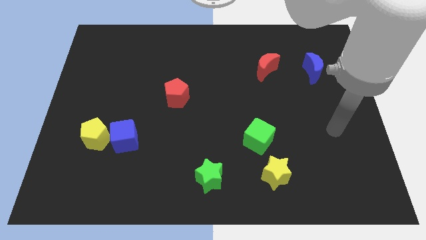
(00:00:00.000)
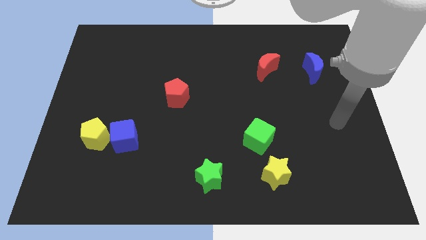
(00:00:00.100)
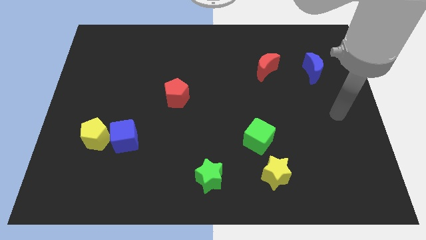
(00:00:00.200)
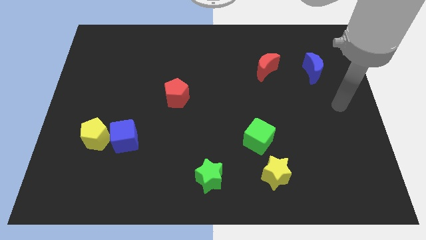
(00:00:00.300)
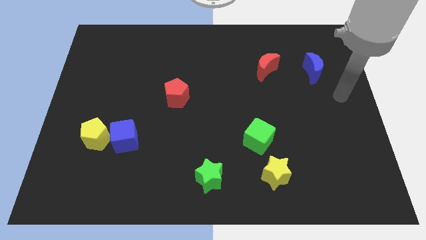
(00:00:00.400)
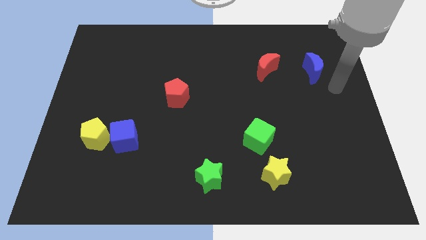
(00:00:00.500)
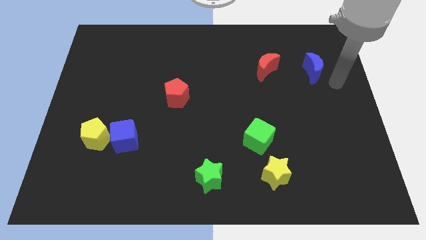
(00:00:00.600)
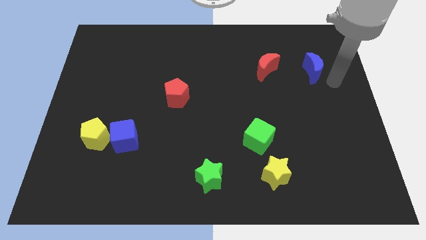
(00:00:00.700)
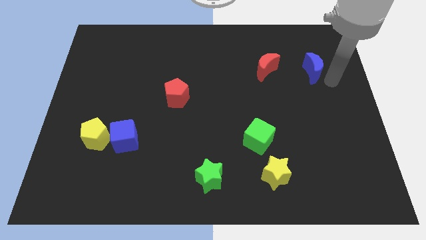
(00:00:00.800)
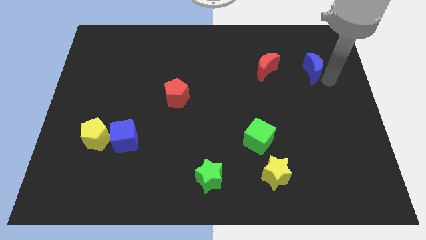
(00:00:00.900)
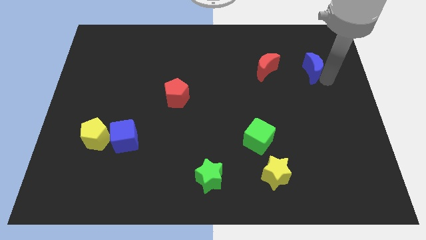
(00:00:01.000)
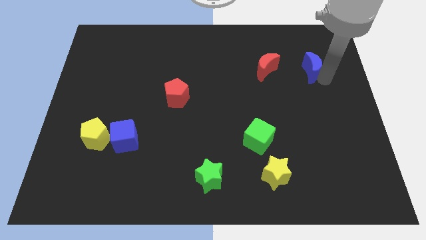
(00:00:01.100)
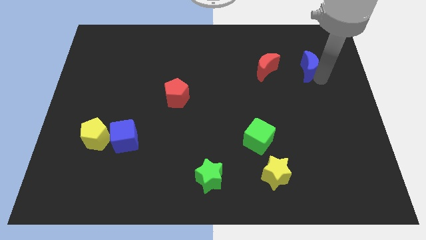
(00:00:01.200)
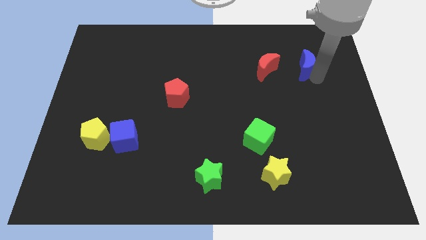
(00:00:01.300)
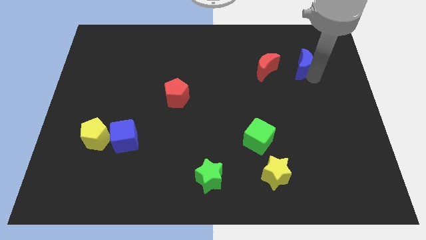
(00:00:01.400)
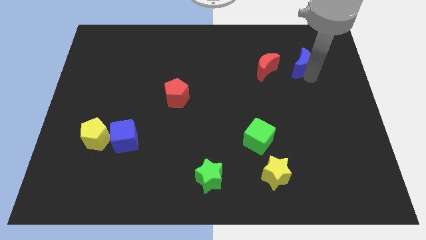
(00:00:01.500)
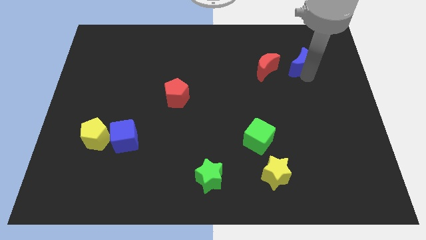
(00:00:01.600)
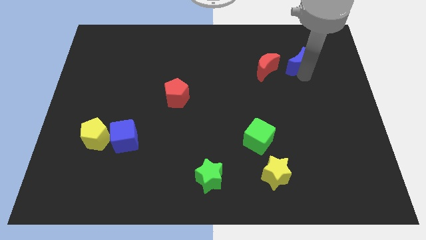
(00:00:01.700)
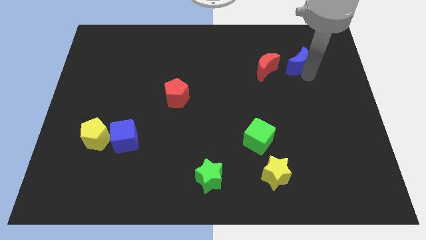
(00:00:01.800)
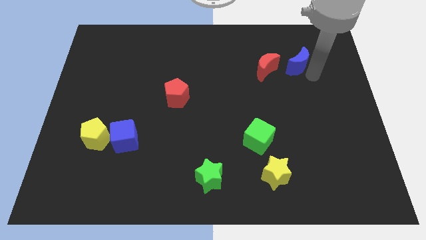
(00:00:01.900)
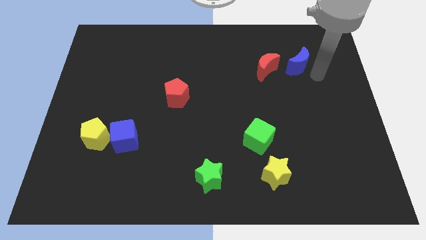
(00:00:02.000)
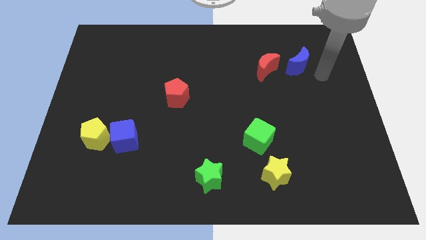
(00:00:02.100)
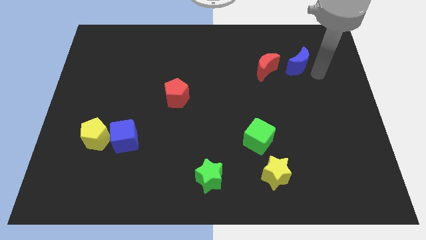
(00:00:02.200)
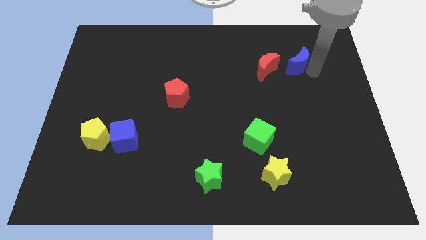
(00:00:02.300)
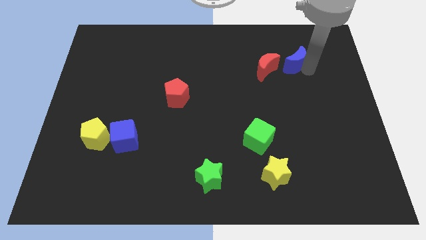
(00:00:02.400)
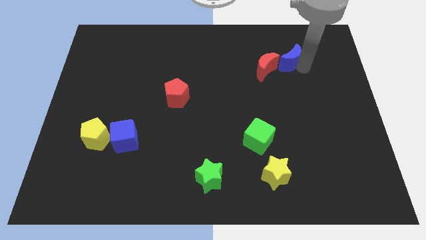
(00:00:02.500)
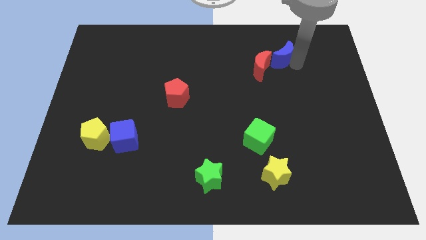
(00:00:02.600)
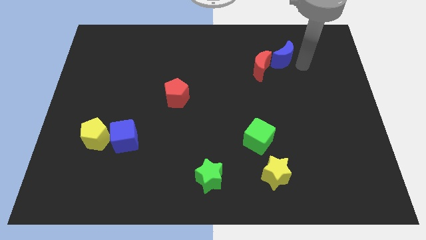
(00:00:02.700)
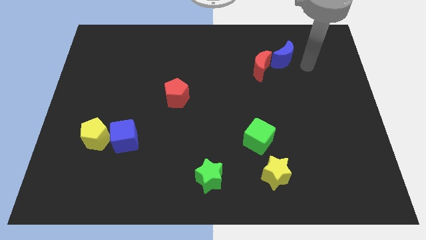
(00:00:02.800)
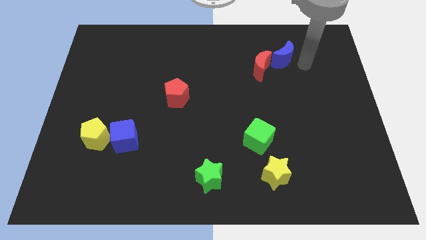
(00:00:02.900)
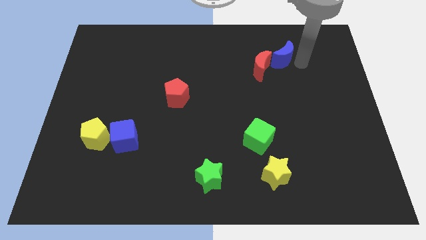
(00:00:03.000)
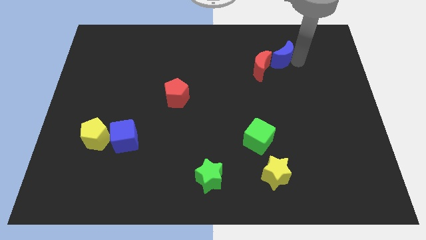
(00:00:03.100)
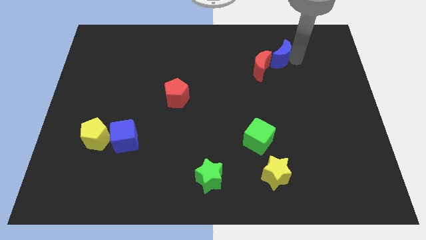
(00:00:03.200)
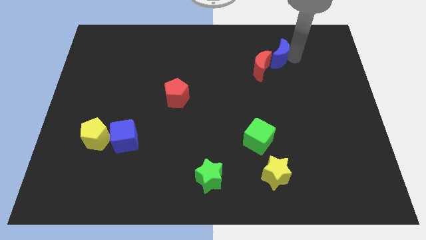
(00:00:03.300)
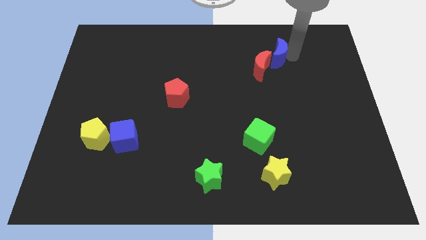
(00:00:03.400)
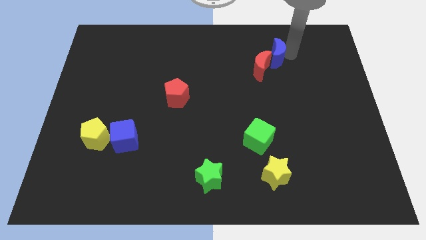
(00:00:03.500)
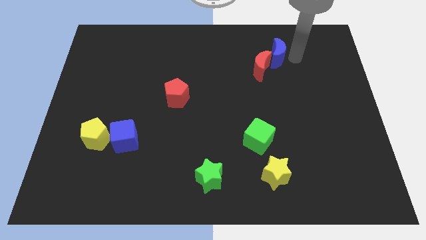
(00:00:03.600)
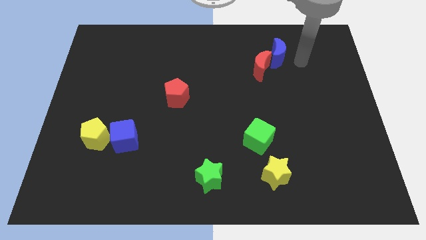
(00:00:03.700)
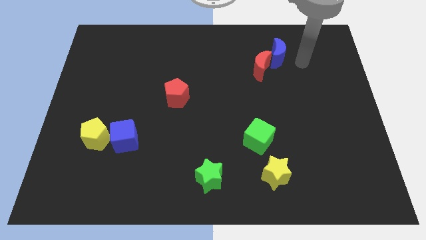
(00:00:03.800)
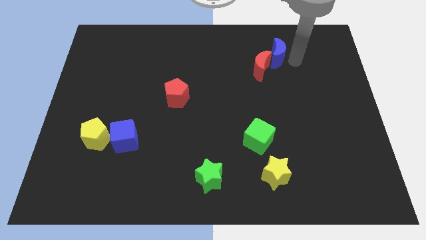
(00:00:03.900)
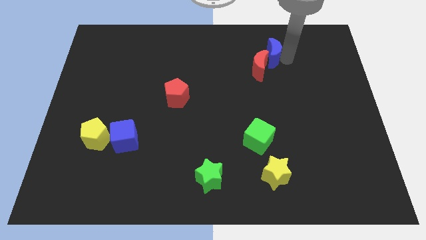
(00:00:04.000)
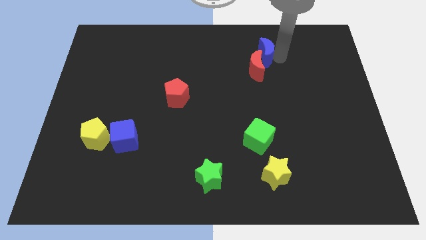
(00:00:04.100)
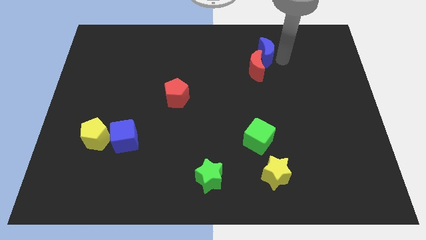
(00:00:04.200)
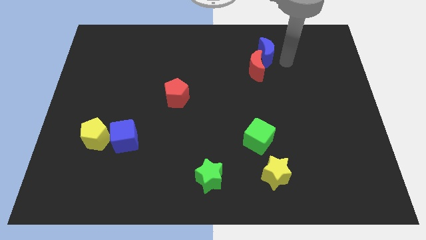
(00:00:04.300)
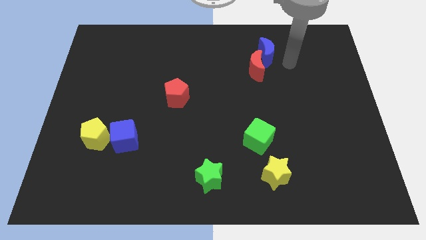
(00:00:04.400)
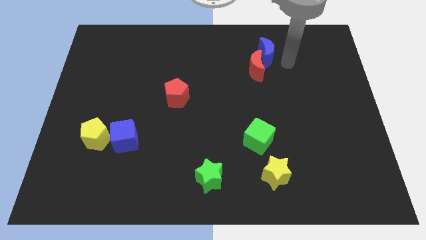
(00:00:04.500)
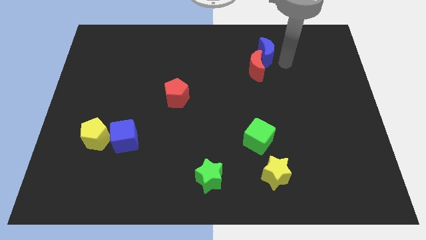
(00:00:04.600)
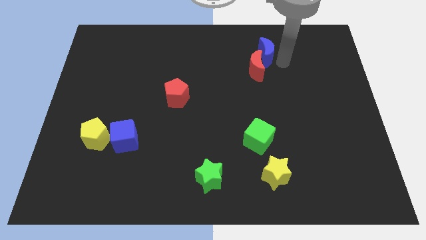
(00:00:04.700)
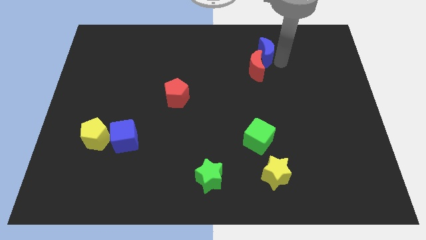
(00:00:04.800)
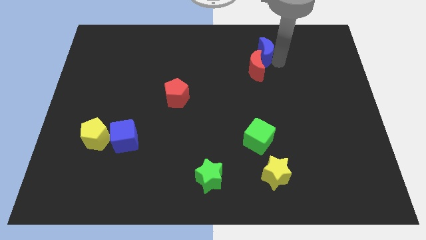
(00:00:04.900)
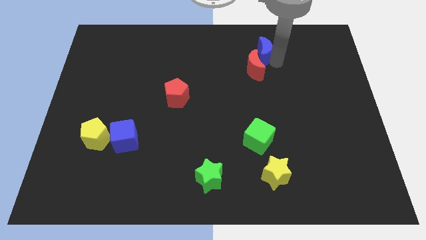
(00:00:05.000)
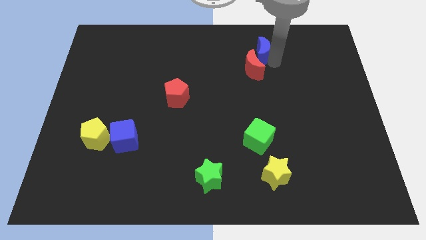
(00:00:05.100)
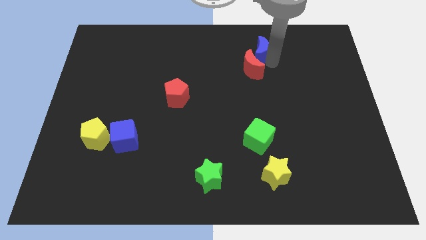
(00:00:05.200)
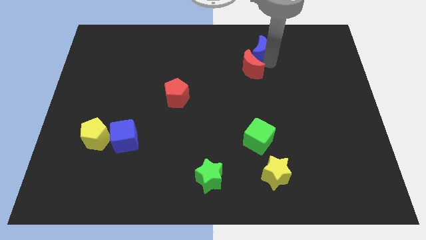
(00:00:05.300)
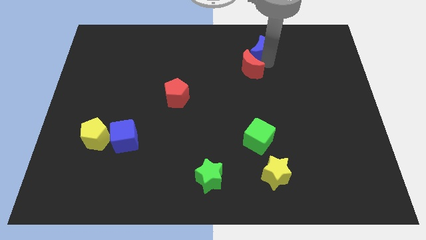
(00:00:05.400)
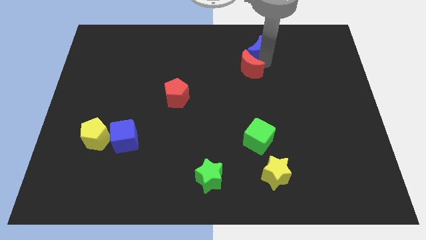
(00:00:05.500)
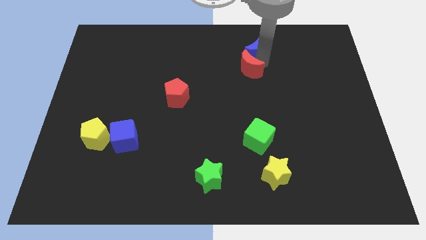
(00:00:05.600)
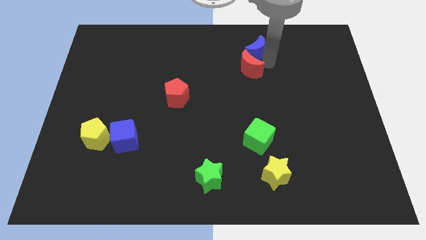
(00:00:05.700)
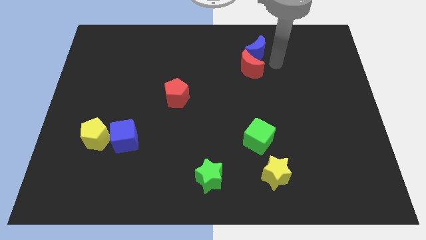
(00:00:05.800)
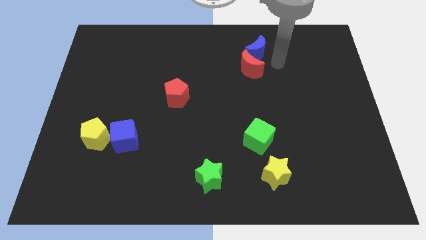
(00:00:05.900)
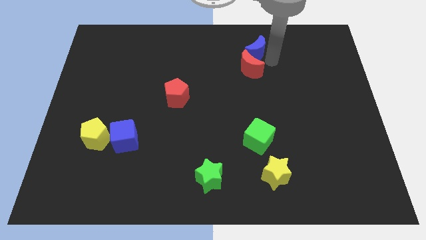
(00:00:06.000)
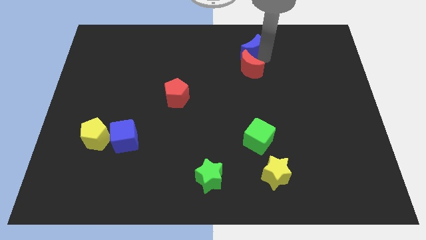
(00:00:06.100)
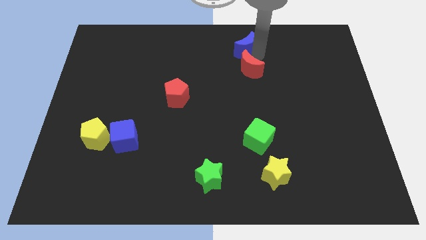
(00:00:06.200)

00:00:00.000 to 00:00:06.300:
put the blue moon to the top side
